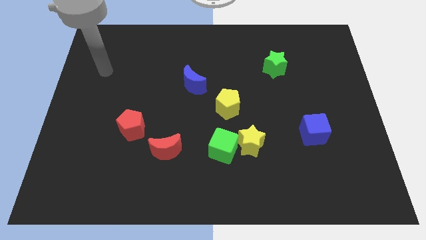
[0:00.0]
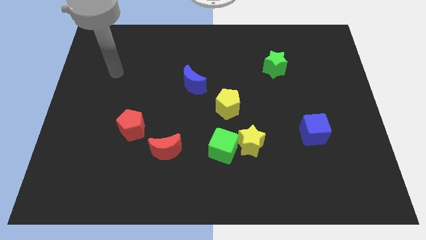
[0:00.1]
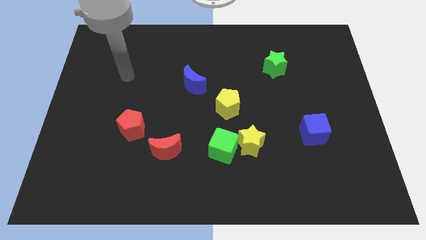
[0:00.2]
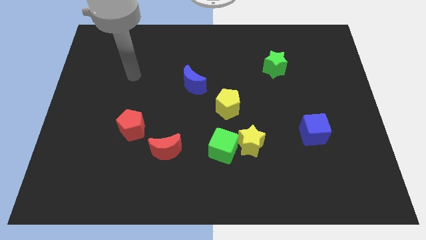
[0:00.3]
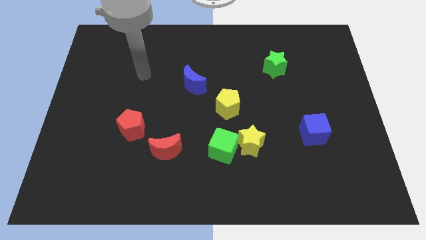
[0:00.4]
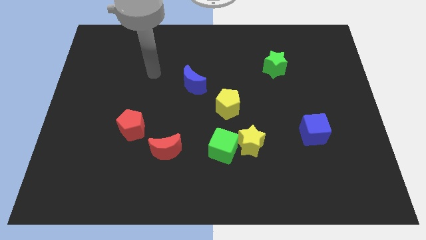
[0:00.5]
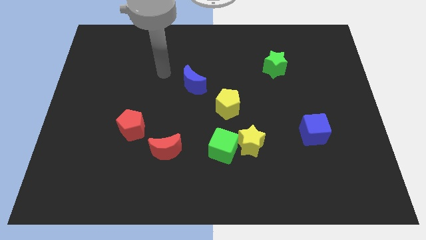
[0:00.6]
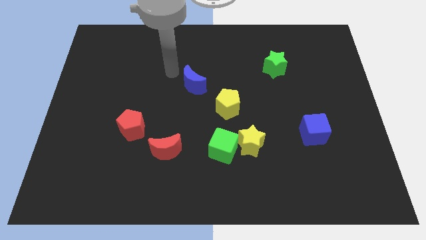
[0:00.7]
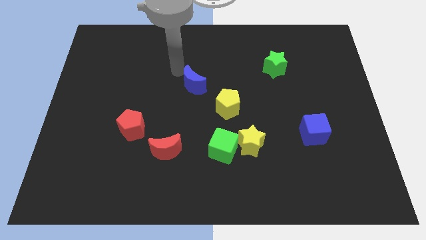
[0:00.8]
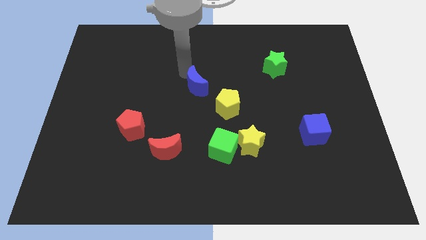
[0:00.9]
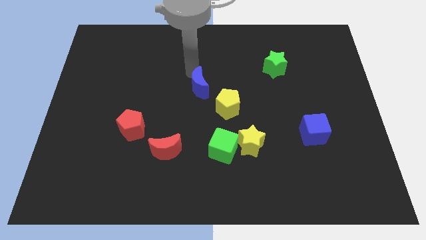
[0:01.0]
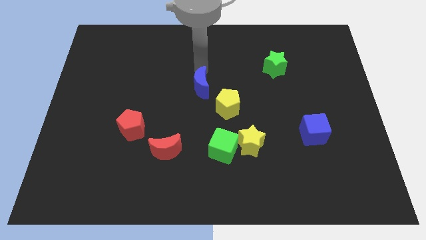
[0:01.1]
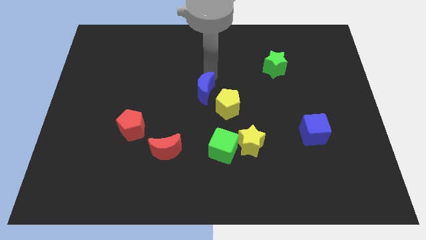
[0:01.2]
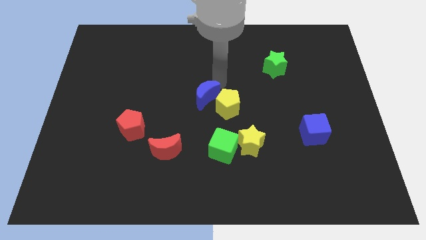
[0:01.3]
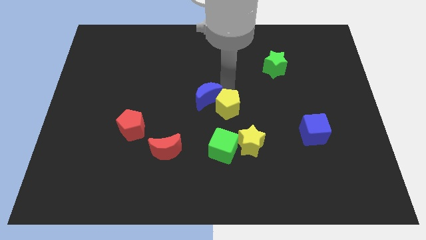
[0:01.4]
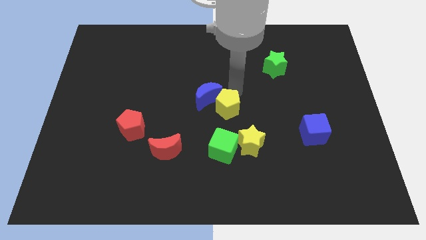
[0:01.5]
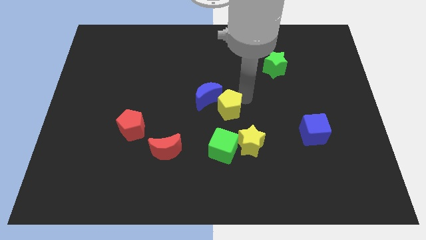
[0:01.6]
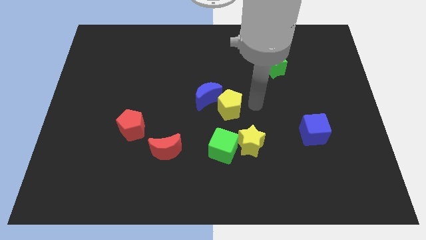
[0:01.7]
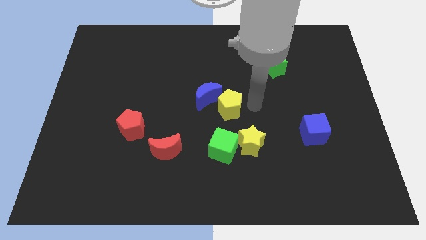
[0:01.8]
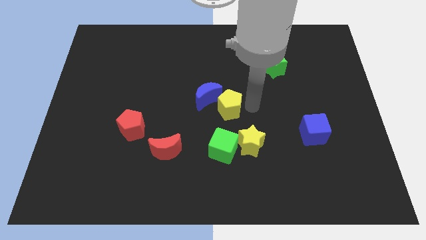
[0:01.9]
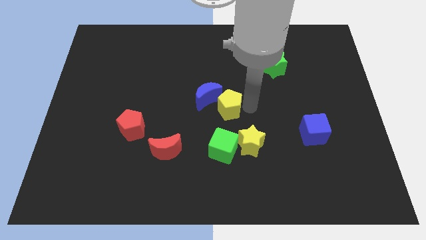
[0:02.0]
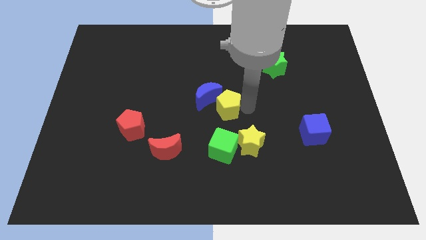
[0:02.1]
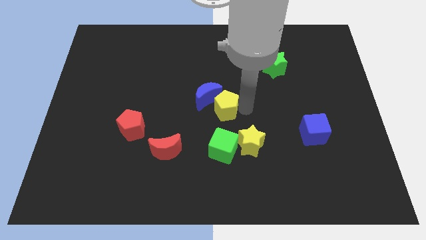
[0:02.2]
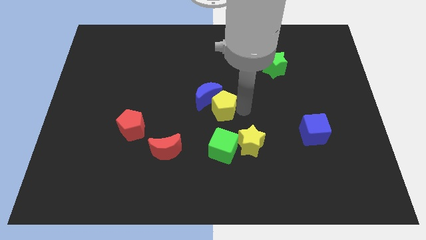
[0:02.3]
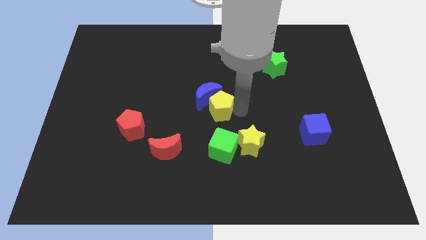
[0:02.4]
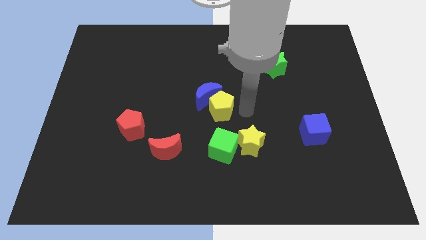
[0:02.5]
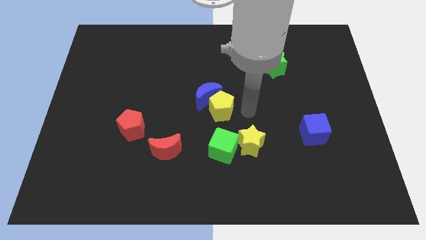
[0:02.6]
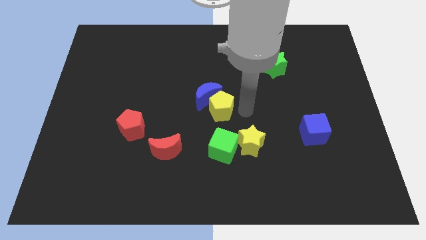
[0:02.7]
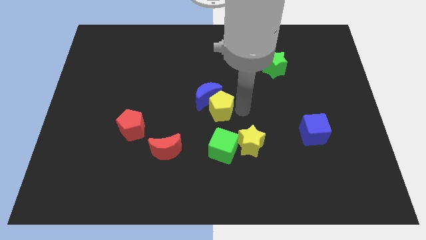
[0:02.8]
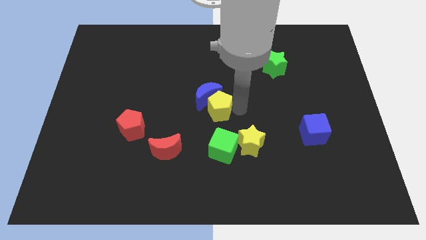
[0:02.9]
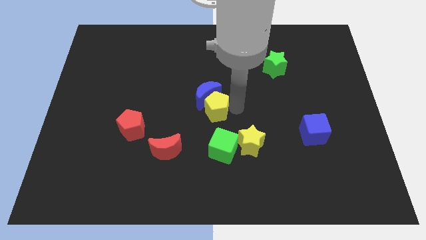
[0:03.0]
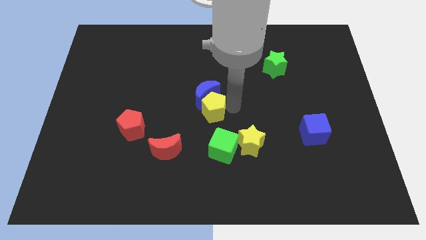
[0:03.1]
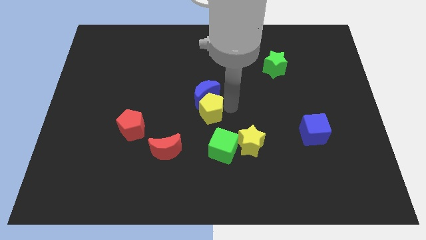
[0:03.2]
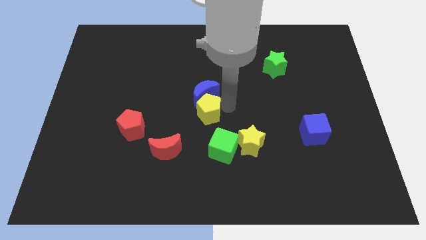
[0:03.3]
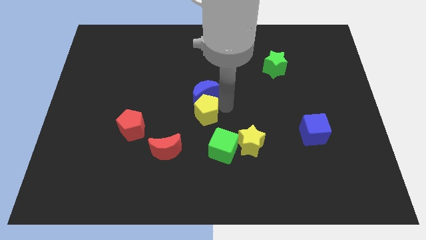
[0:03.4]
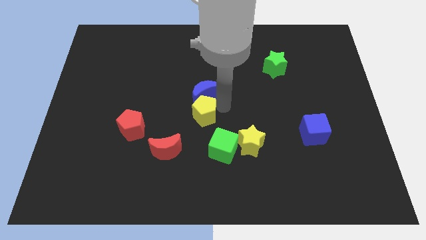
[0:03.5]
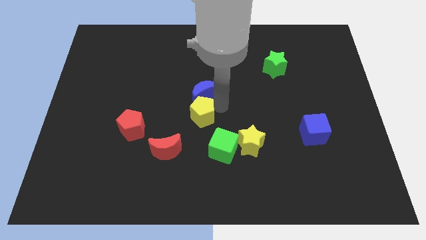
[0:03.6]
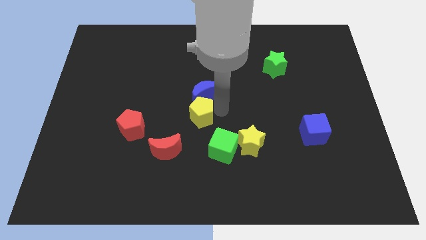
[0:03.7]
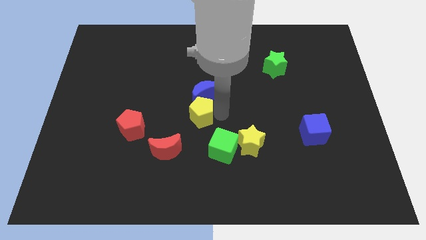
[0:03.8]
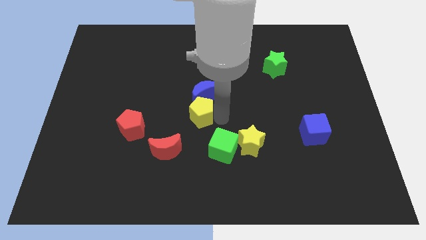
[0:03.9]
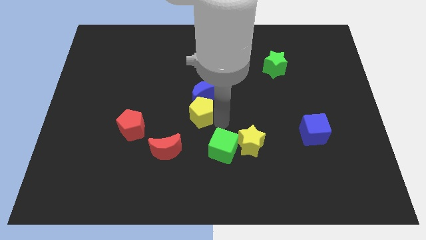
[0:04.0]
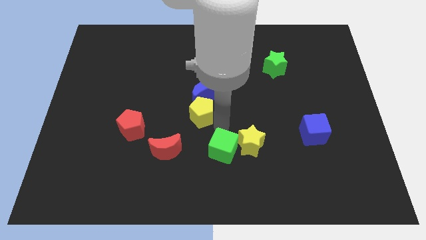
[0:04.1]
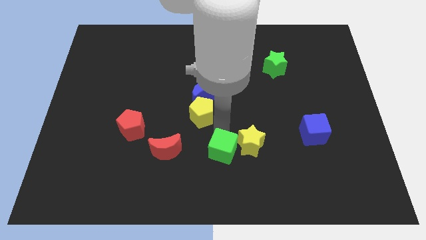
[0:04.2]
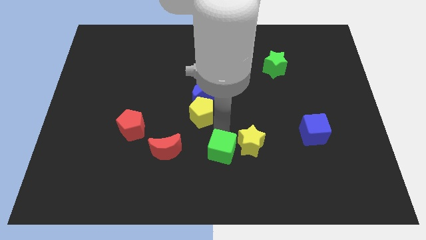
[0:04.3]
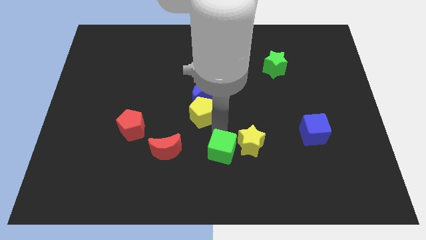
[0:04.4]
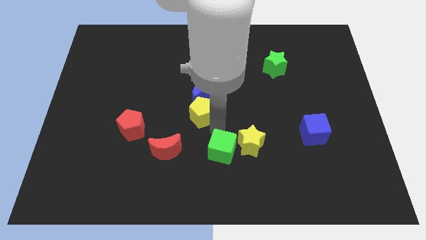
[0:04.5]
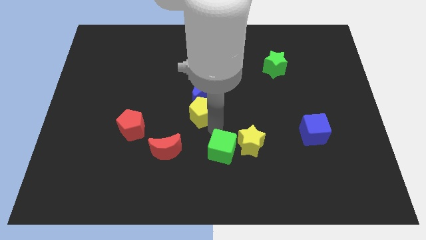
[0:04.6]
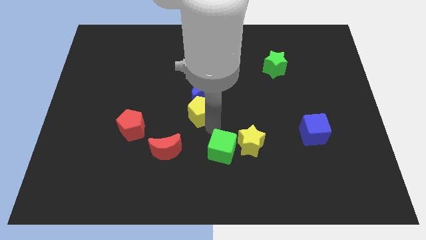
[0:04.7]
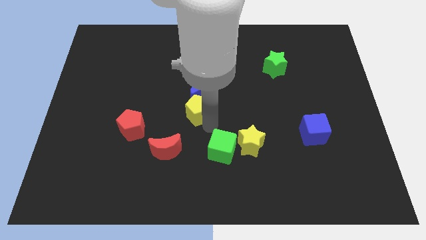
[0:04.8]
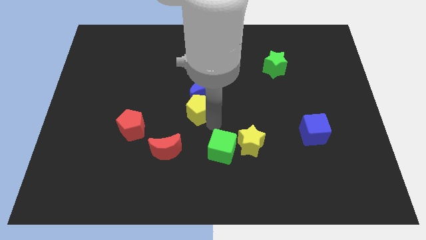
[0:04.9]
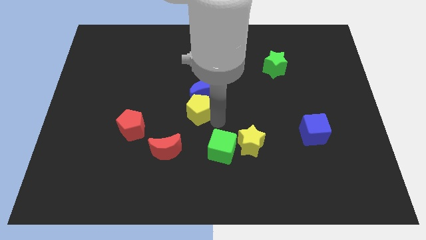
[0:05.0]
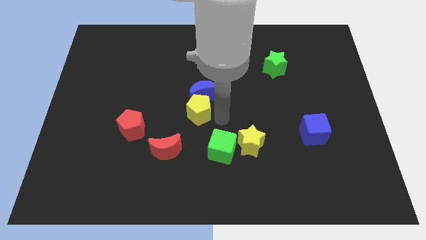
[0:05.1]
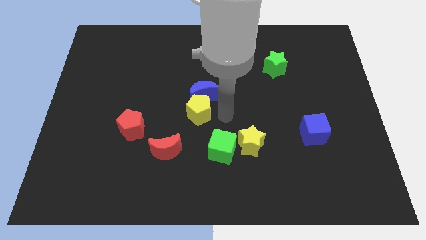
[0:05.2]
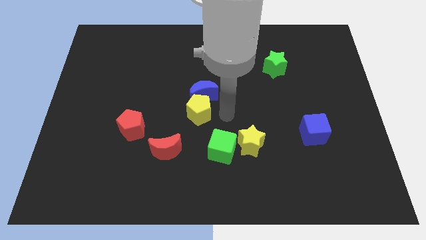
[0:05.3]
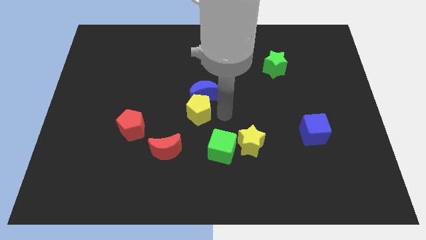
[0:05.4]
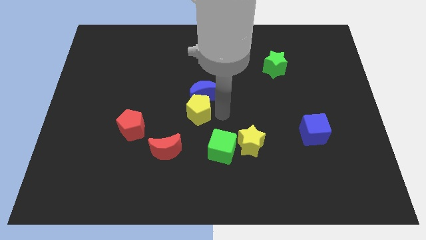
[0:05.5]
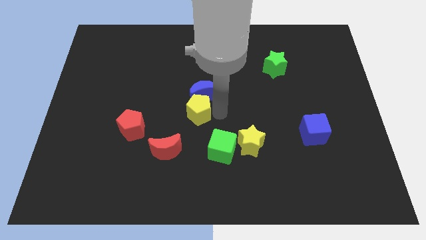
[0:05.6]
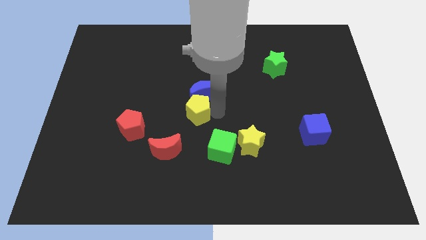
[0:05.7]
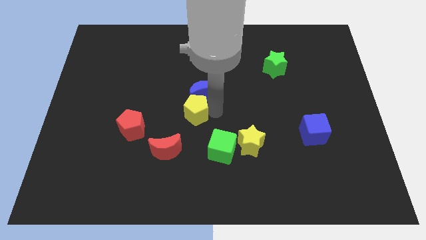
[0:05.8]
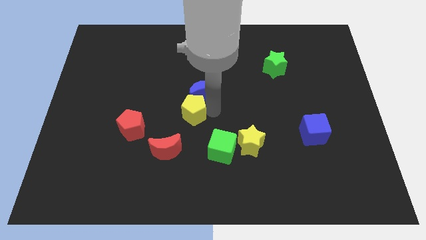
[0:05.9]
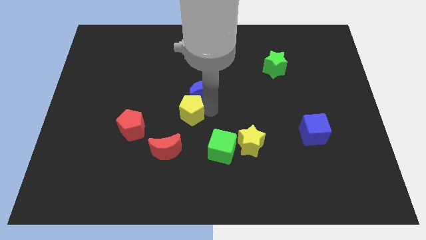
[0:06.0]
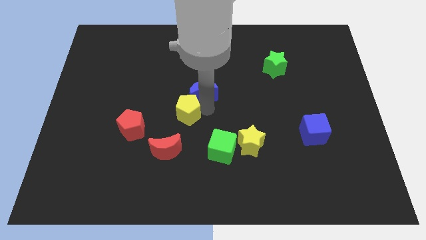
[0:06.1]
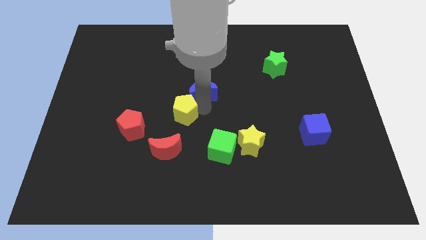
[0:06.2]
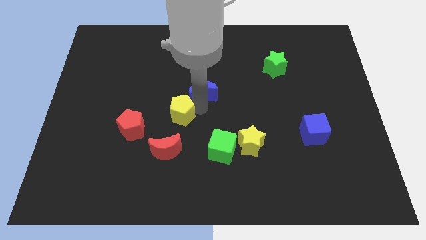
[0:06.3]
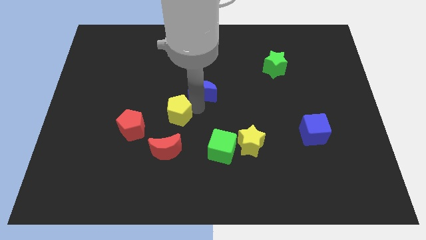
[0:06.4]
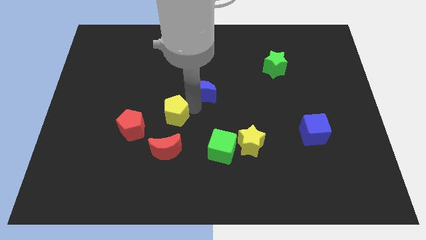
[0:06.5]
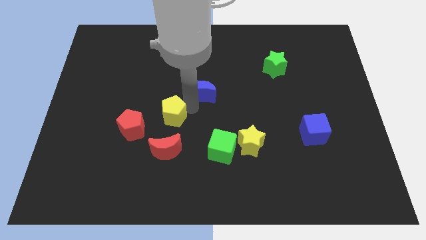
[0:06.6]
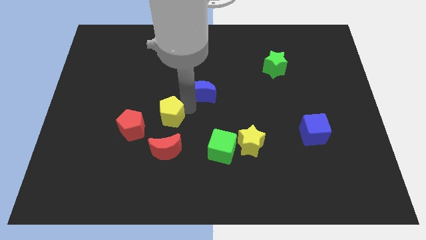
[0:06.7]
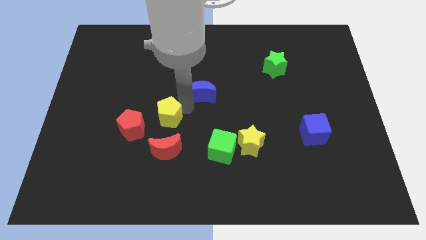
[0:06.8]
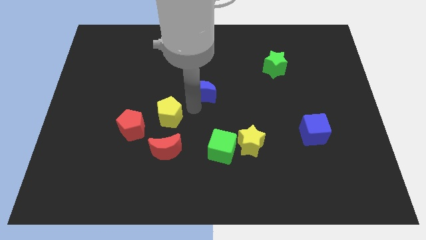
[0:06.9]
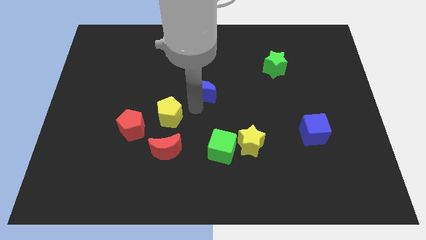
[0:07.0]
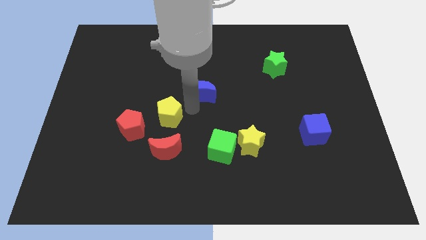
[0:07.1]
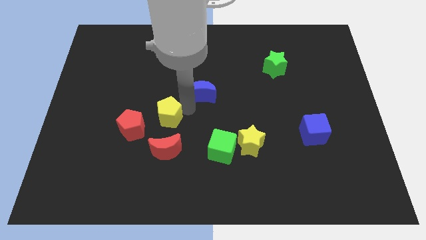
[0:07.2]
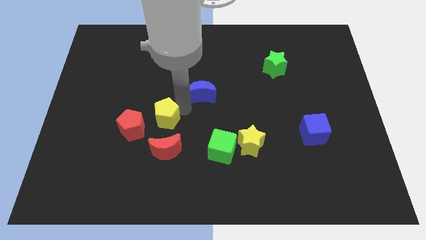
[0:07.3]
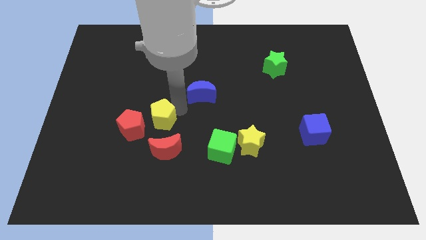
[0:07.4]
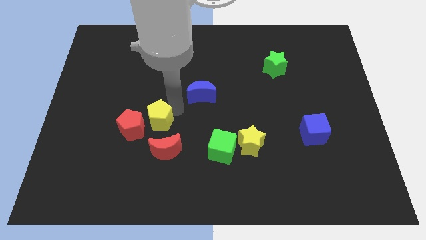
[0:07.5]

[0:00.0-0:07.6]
move the yellow pentagon towards the red pentagon
